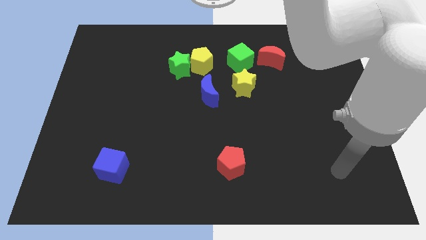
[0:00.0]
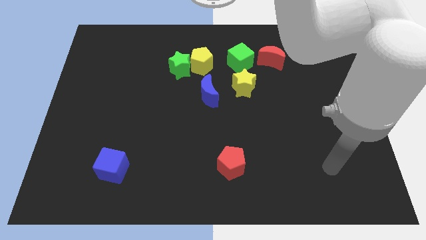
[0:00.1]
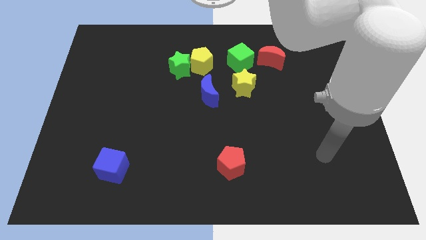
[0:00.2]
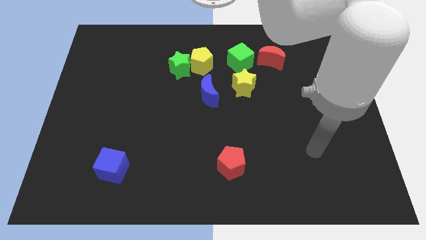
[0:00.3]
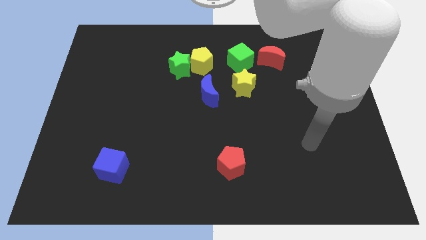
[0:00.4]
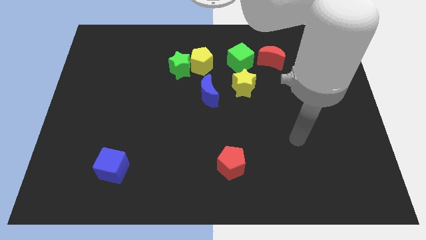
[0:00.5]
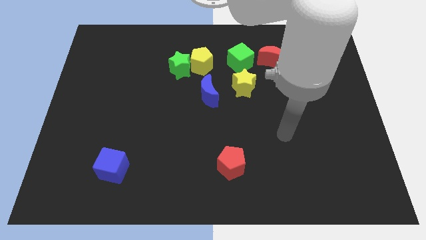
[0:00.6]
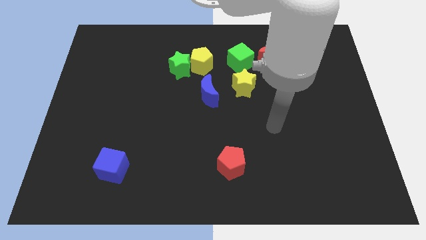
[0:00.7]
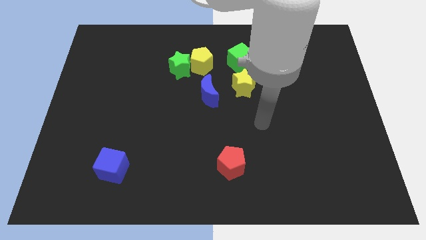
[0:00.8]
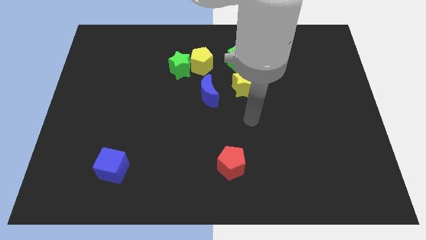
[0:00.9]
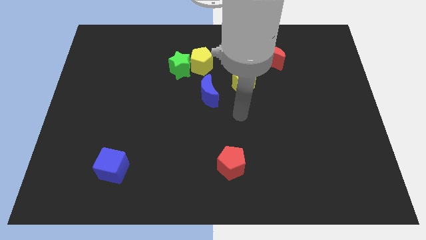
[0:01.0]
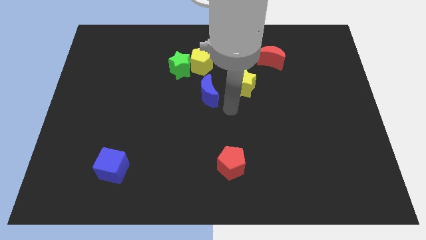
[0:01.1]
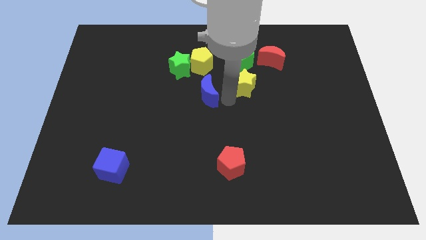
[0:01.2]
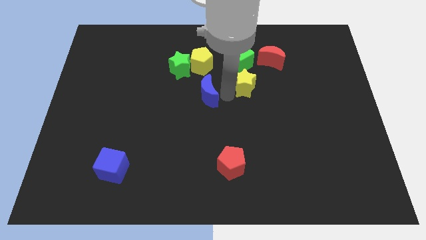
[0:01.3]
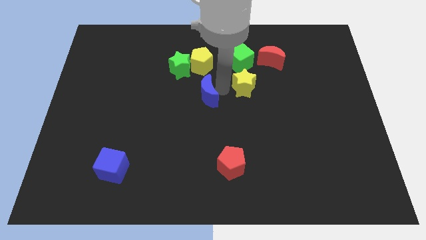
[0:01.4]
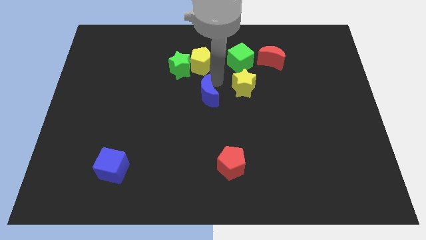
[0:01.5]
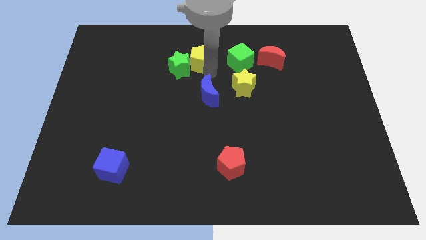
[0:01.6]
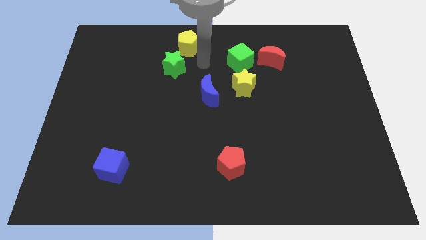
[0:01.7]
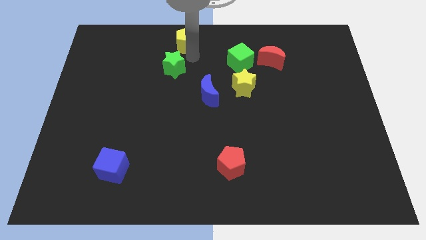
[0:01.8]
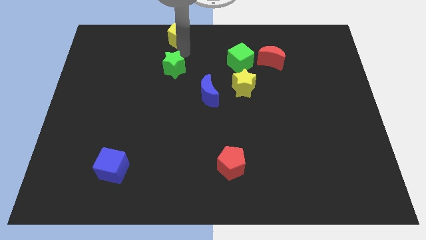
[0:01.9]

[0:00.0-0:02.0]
separate the green star from the yellow pentagon

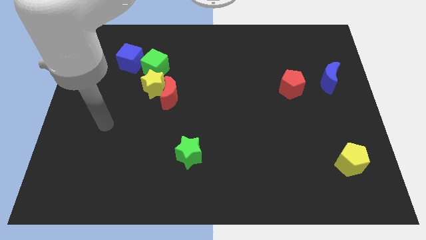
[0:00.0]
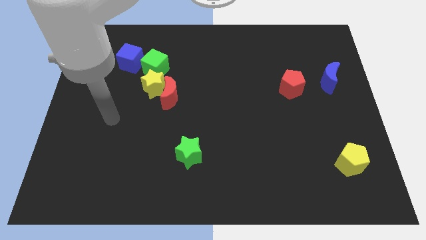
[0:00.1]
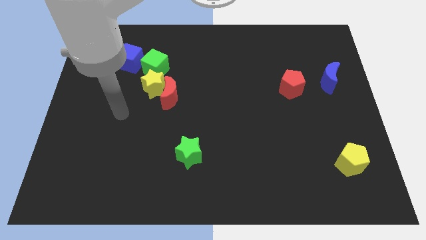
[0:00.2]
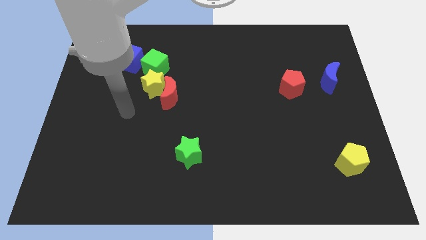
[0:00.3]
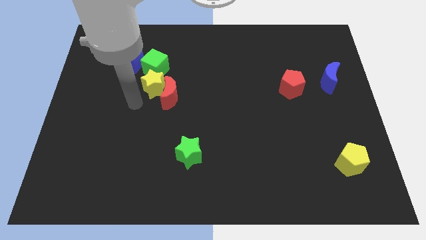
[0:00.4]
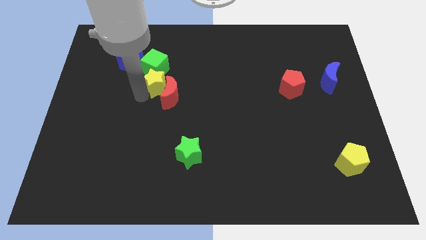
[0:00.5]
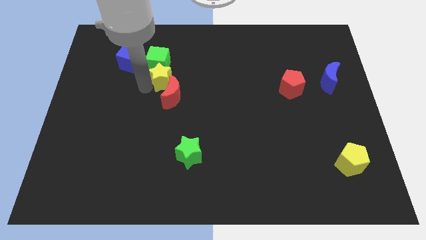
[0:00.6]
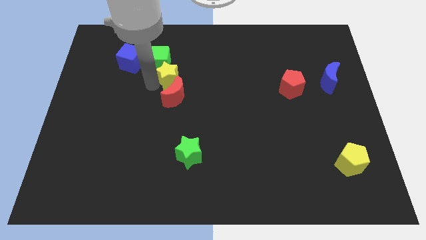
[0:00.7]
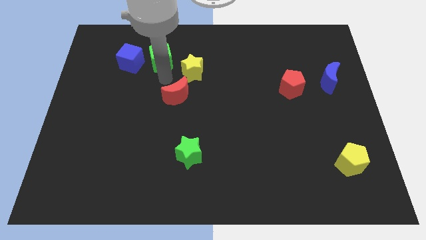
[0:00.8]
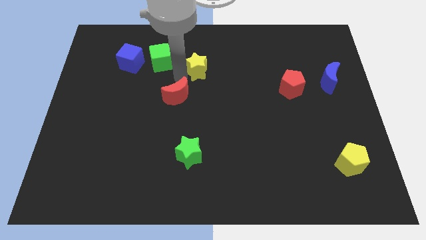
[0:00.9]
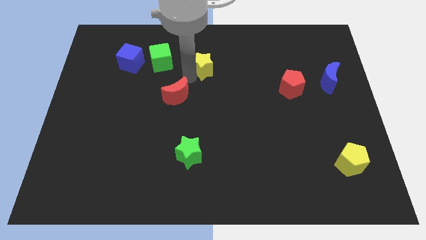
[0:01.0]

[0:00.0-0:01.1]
separate the red moon from the yellow star

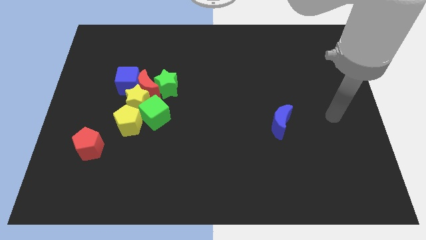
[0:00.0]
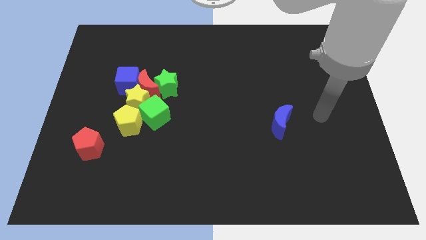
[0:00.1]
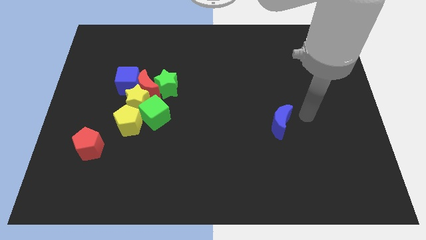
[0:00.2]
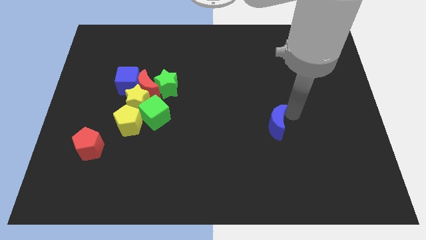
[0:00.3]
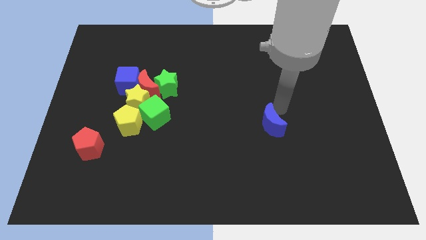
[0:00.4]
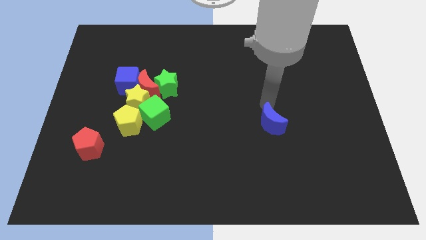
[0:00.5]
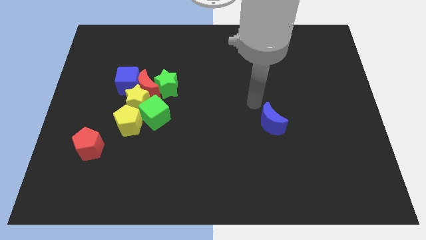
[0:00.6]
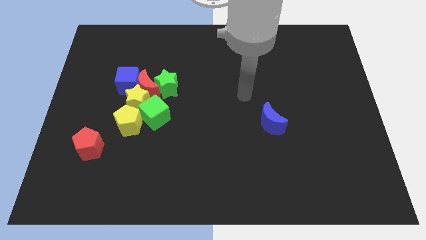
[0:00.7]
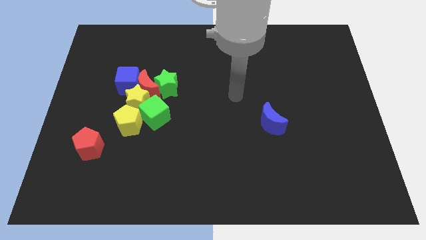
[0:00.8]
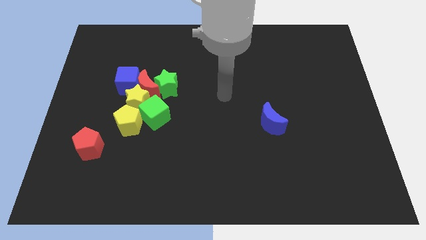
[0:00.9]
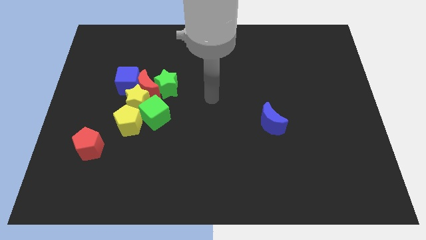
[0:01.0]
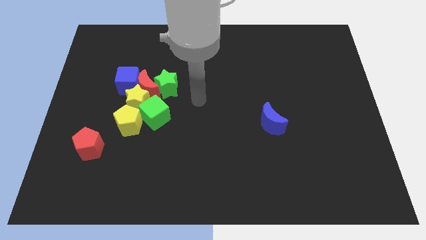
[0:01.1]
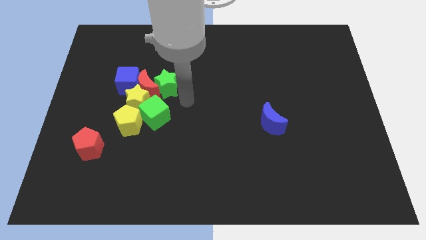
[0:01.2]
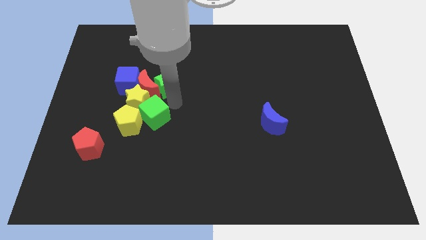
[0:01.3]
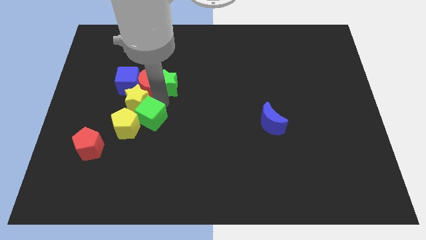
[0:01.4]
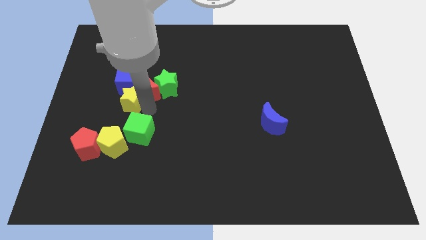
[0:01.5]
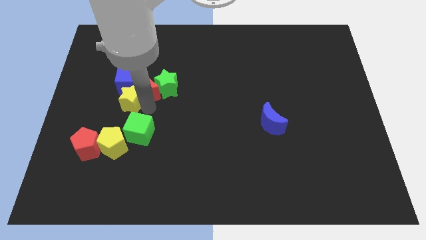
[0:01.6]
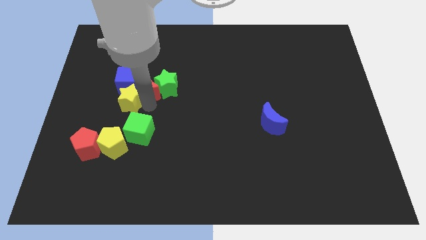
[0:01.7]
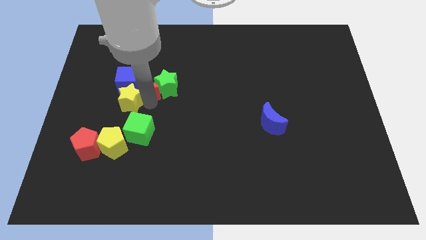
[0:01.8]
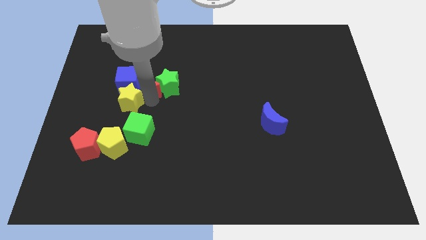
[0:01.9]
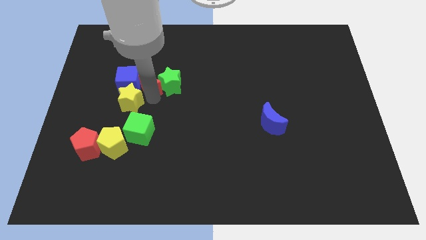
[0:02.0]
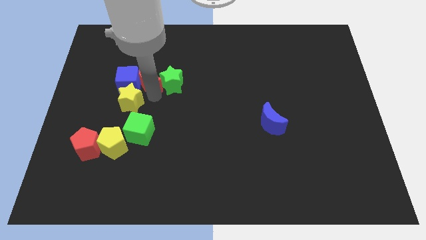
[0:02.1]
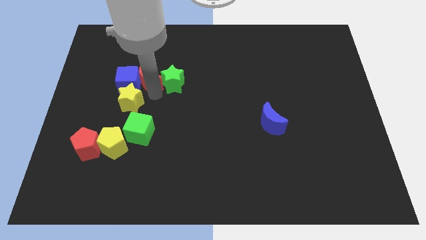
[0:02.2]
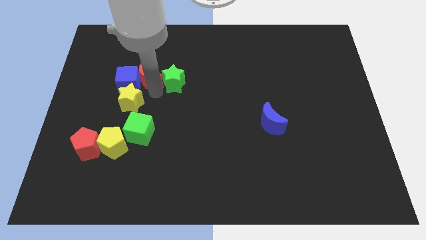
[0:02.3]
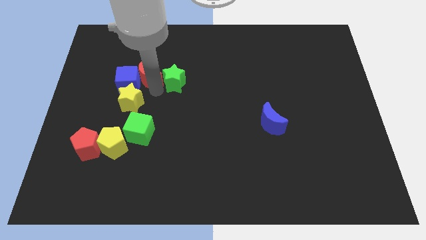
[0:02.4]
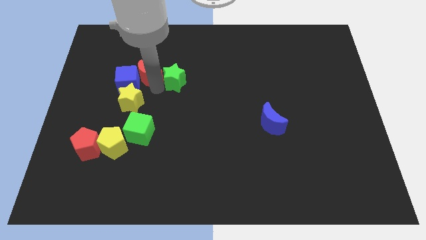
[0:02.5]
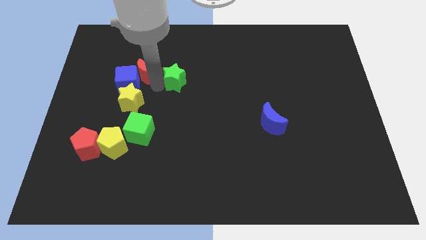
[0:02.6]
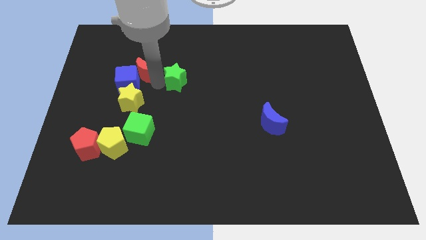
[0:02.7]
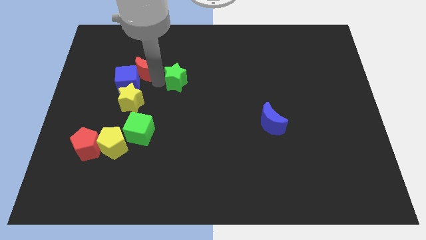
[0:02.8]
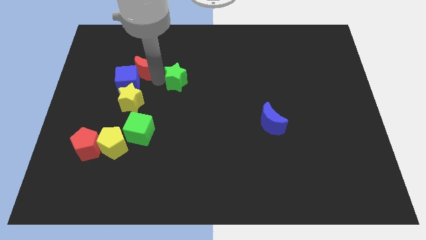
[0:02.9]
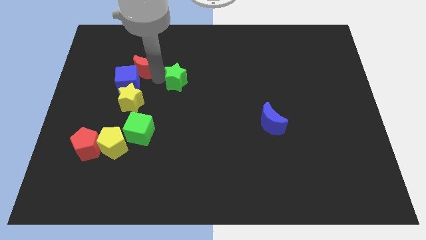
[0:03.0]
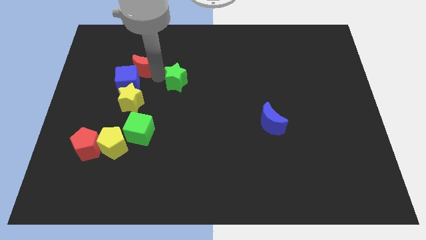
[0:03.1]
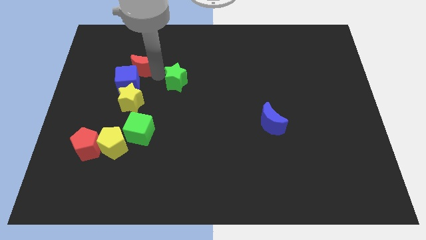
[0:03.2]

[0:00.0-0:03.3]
move the red moon away from the group

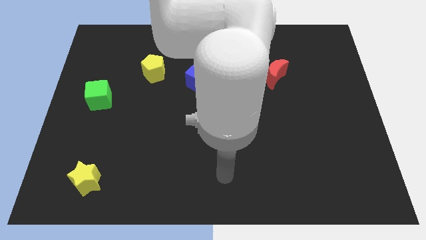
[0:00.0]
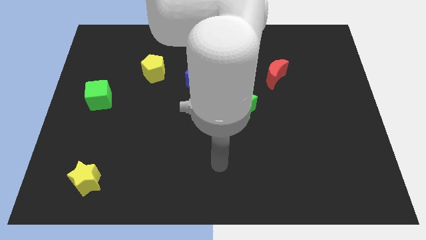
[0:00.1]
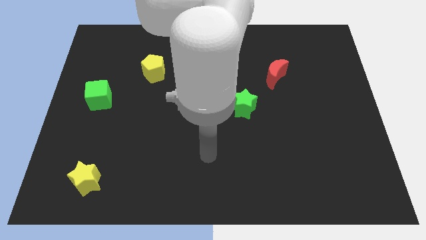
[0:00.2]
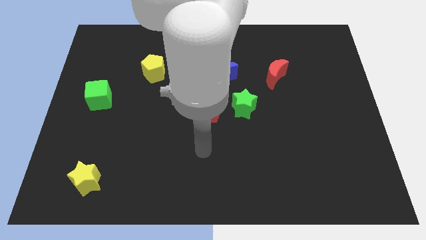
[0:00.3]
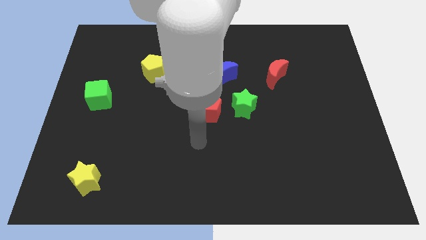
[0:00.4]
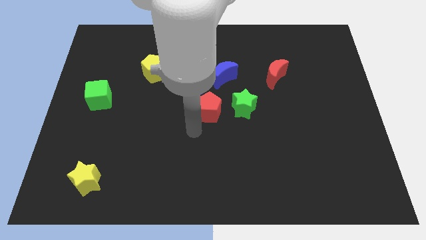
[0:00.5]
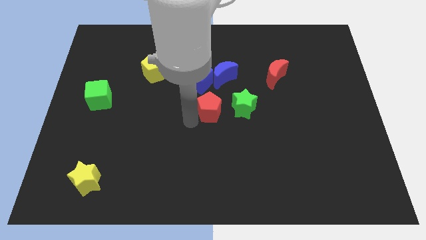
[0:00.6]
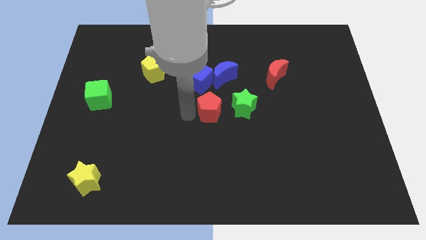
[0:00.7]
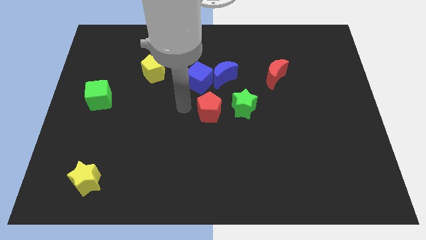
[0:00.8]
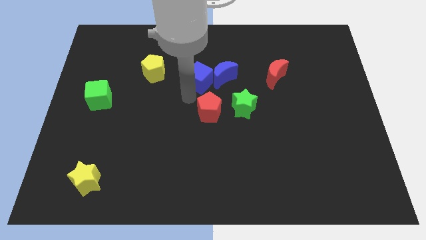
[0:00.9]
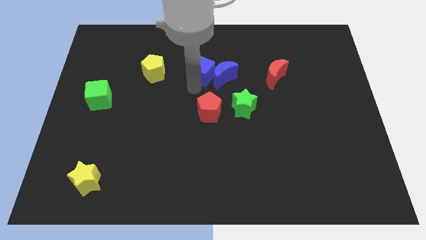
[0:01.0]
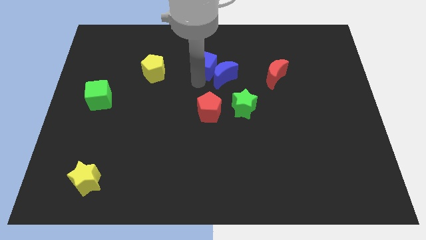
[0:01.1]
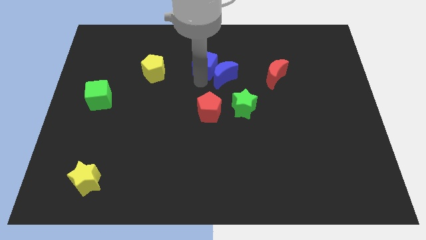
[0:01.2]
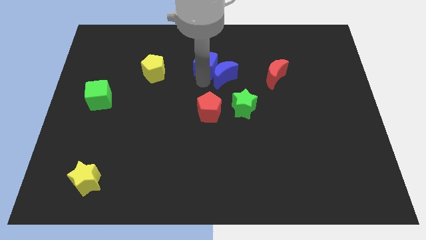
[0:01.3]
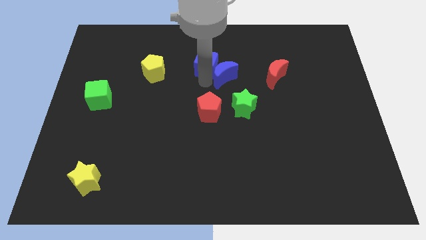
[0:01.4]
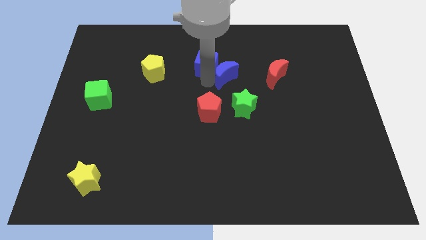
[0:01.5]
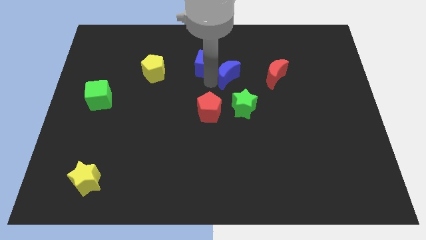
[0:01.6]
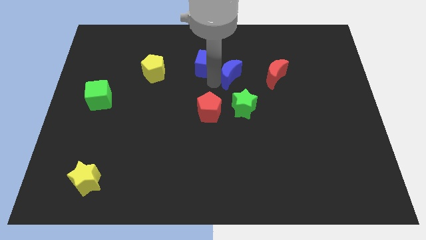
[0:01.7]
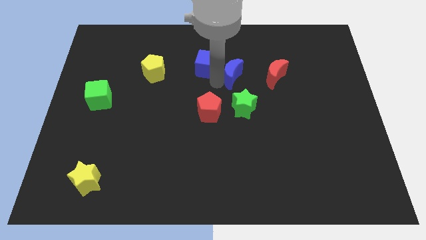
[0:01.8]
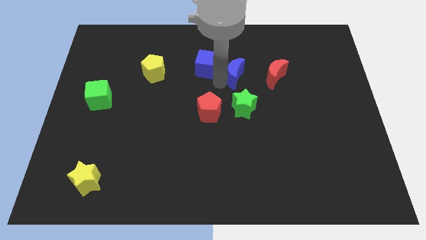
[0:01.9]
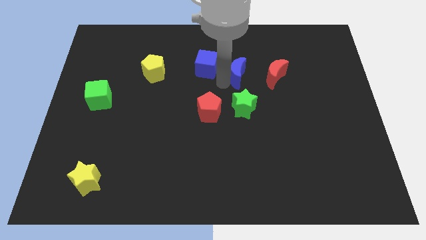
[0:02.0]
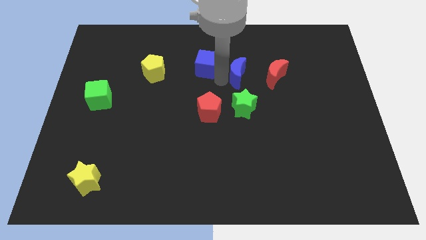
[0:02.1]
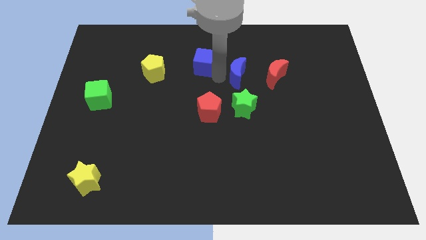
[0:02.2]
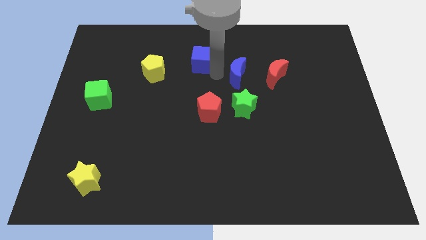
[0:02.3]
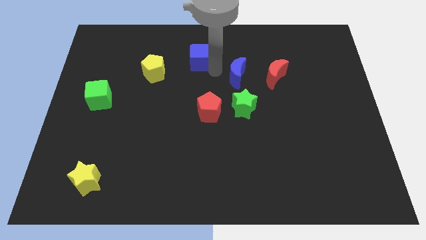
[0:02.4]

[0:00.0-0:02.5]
pull the blue moon apart from the blue cube

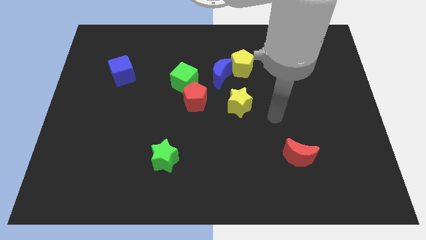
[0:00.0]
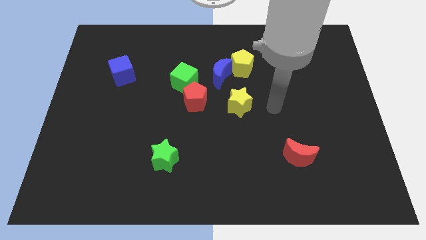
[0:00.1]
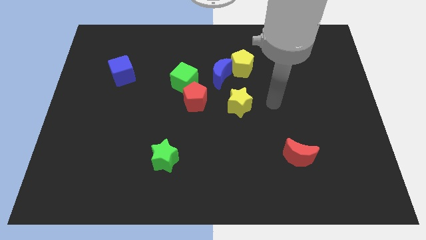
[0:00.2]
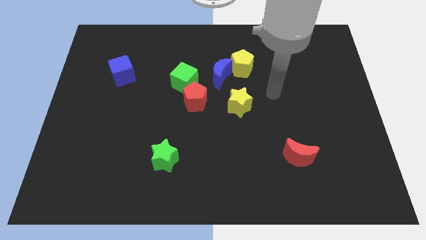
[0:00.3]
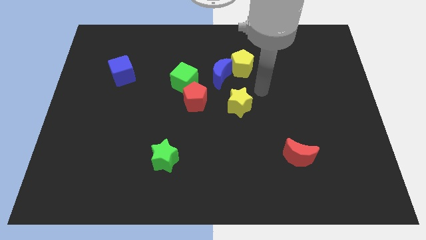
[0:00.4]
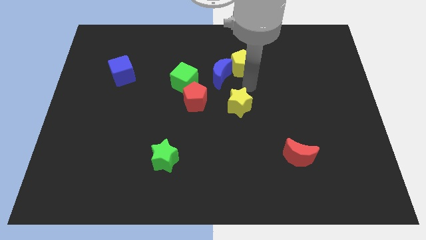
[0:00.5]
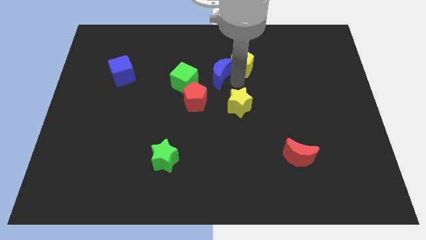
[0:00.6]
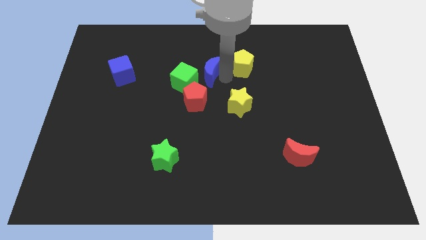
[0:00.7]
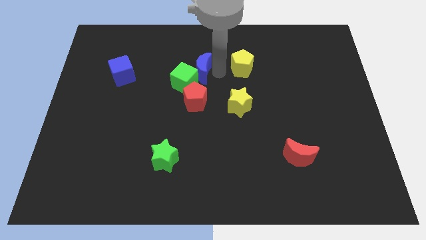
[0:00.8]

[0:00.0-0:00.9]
move the yellow pentagon away from the blue moon
